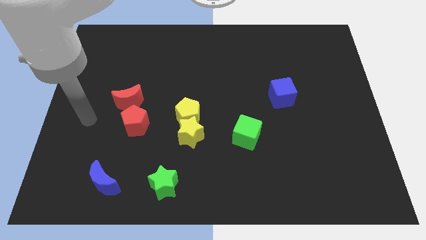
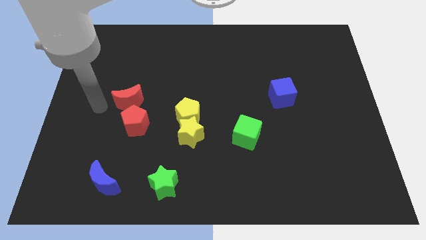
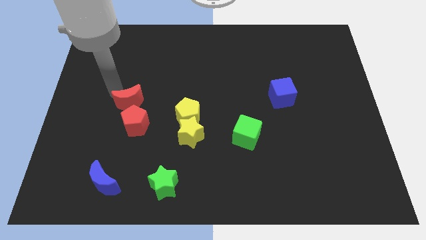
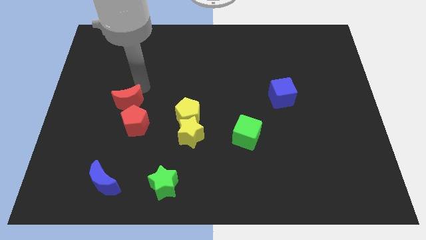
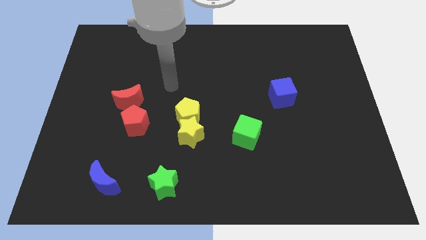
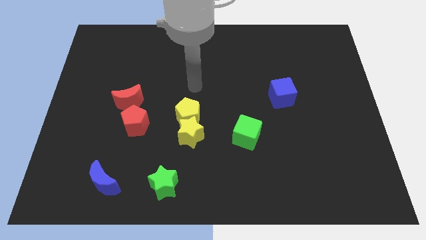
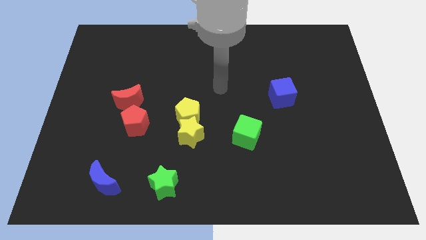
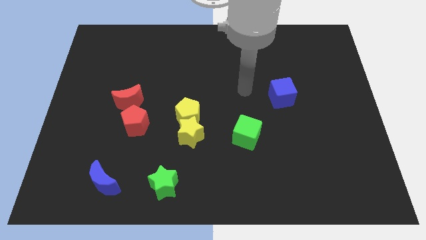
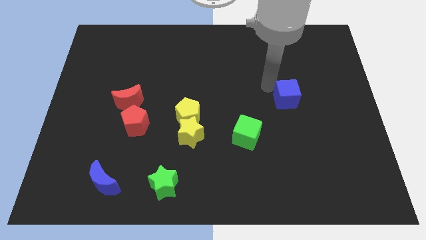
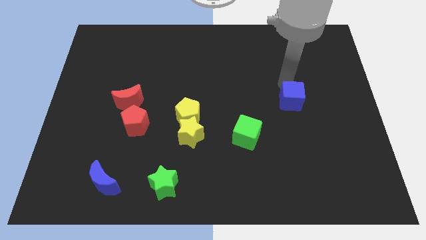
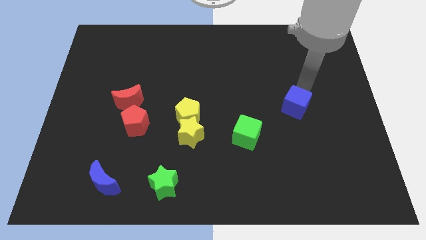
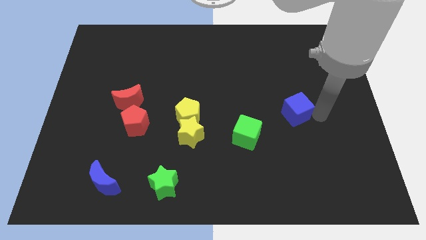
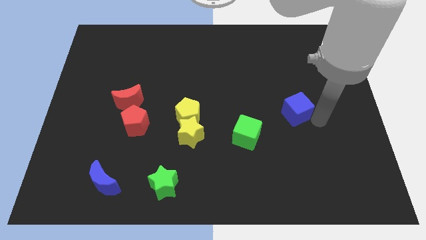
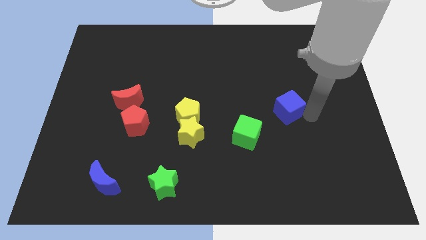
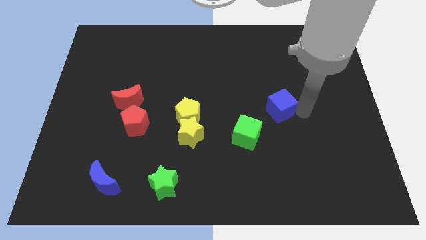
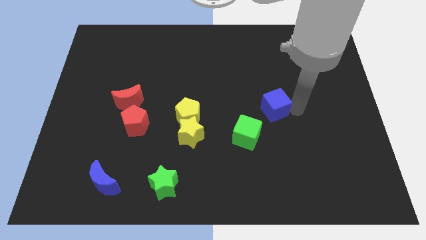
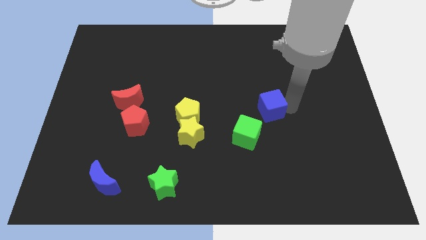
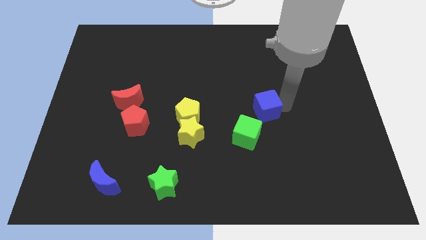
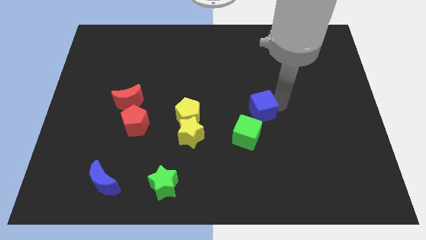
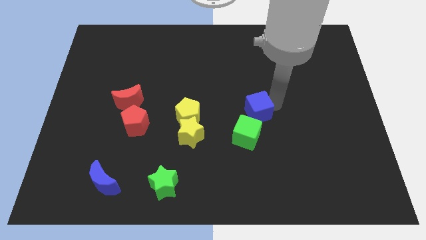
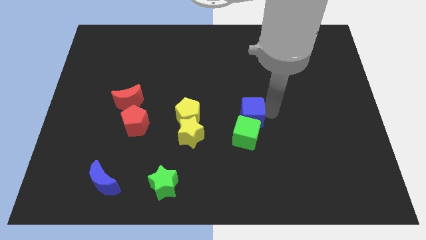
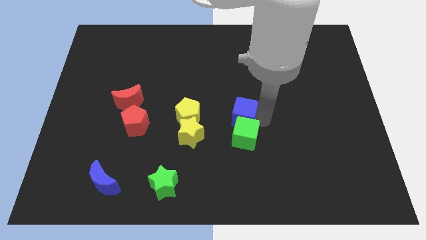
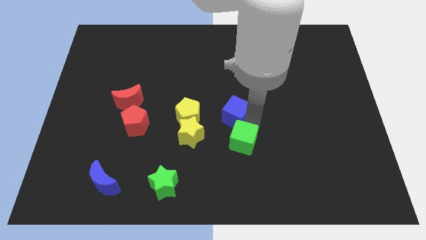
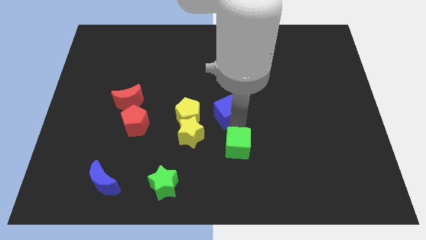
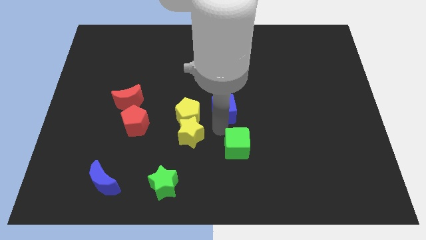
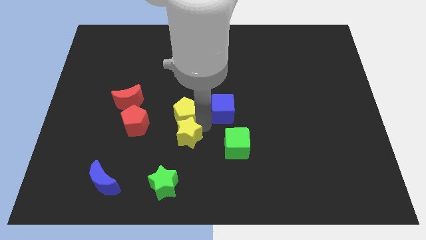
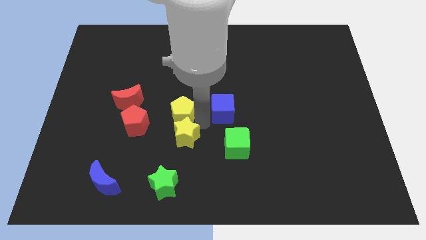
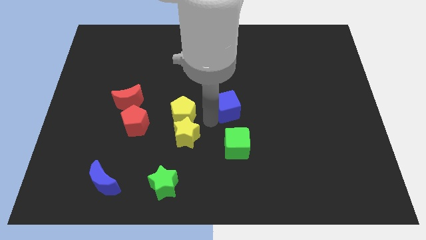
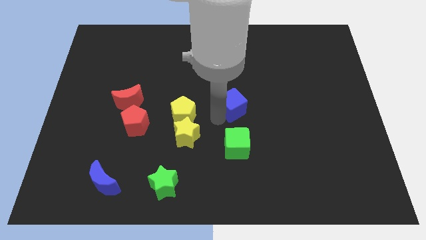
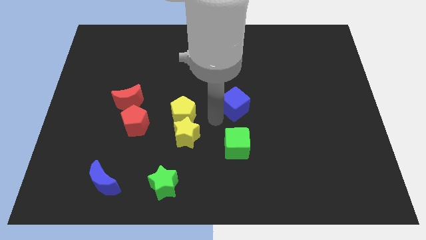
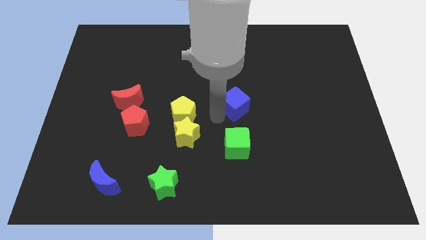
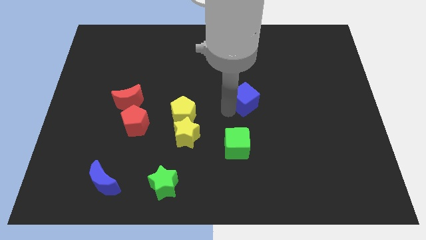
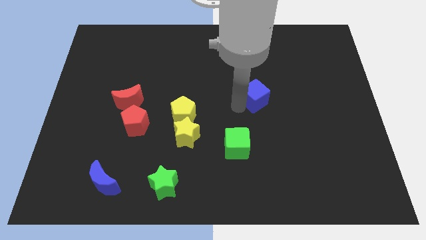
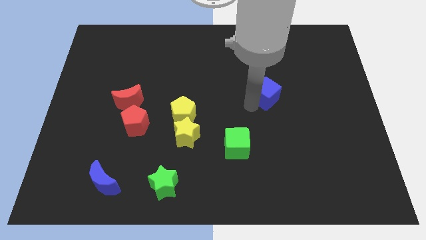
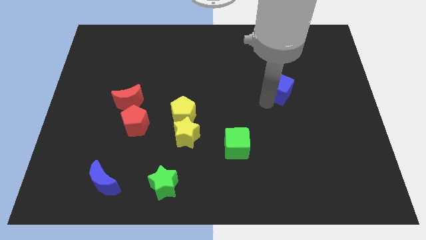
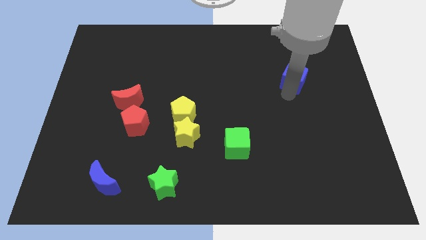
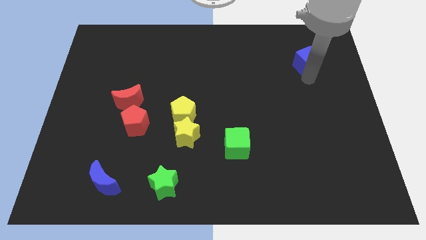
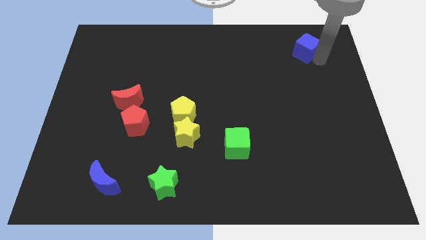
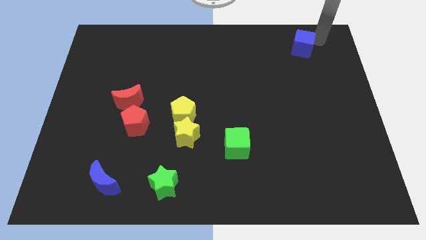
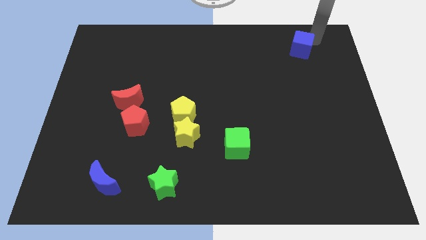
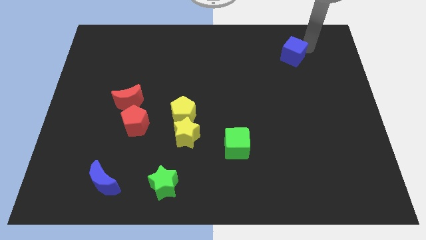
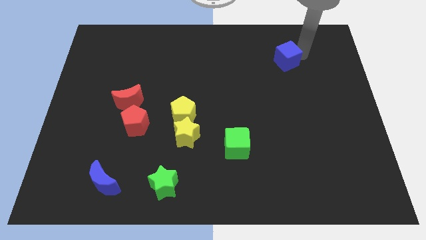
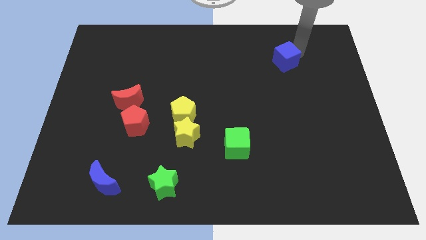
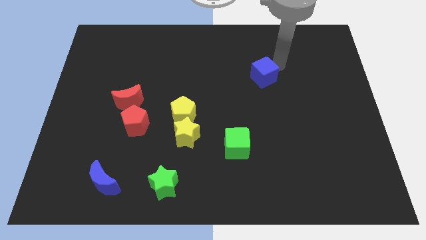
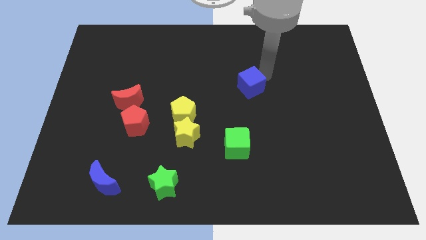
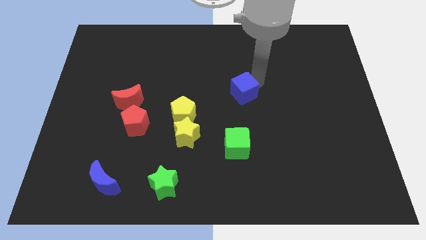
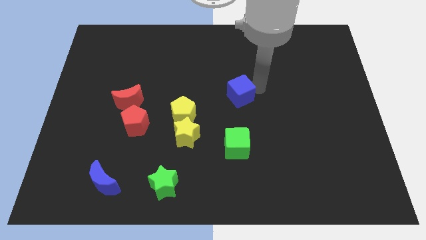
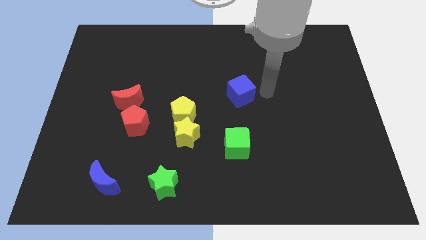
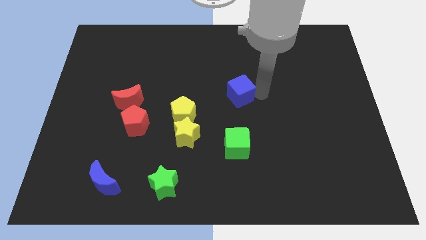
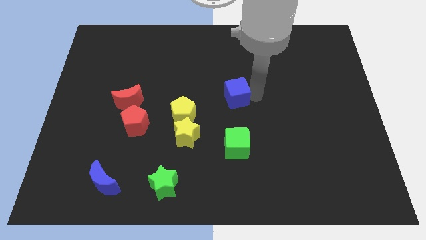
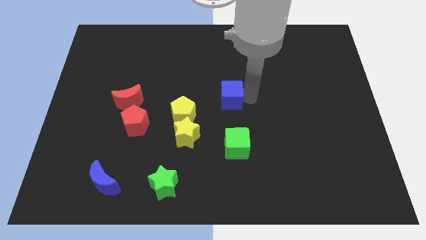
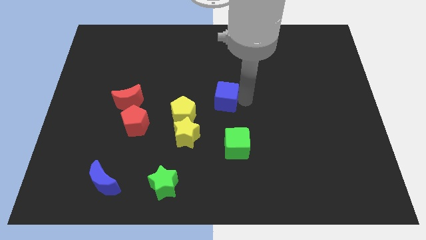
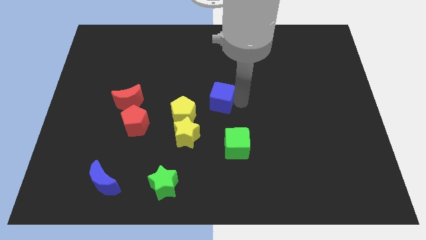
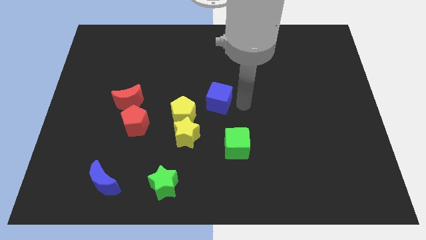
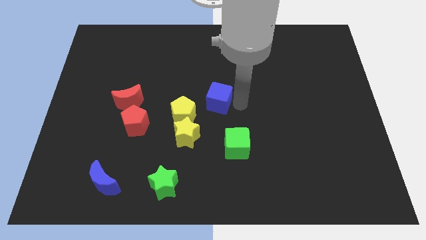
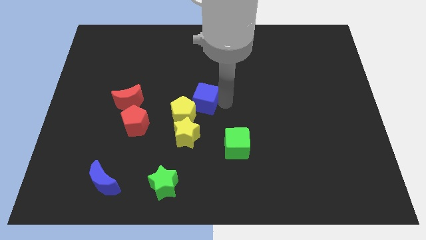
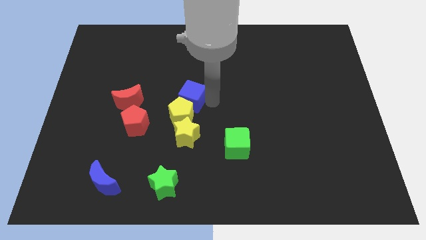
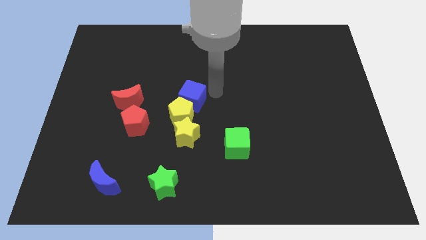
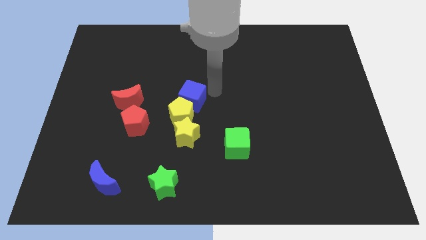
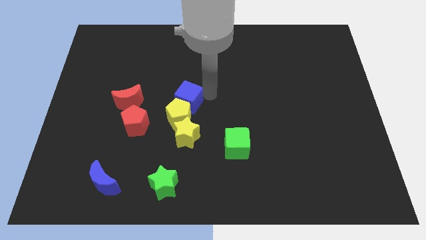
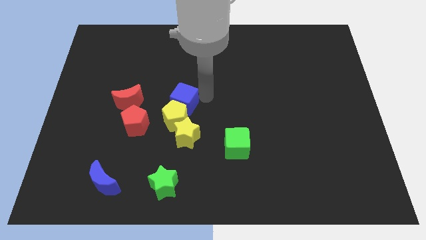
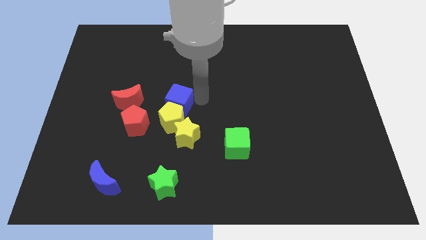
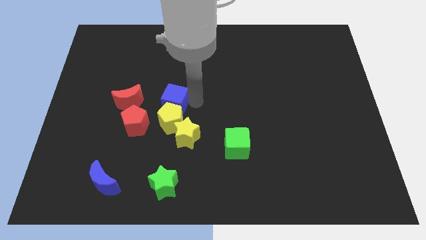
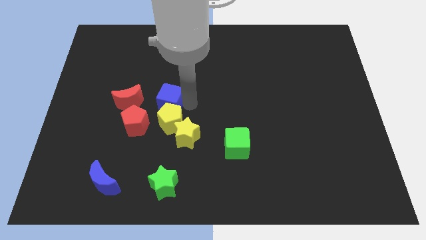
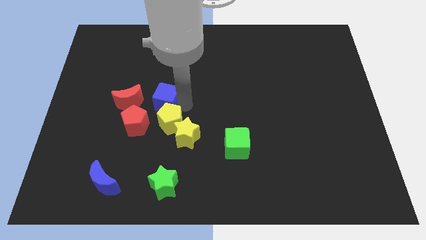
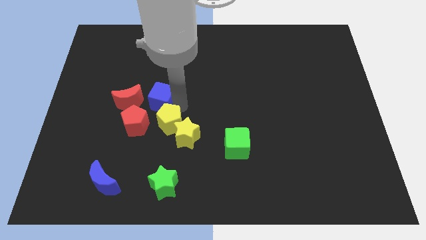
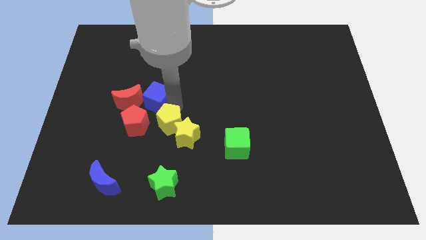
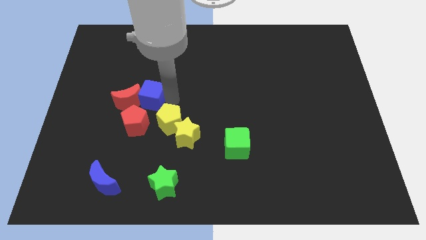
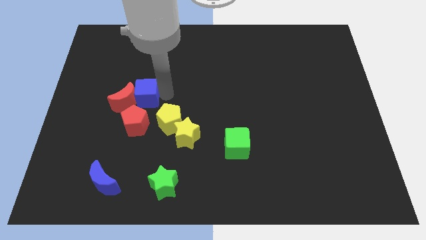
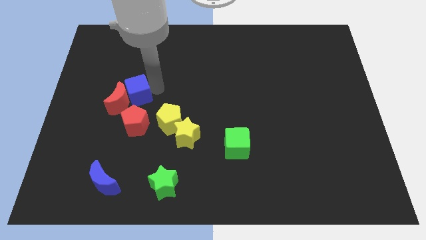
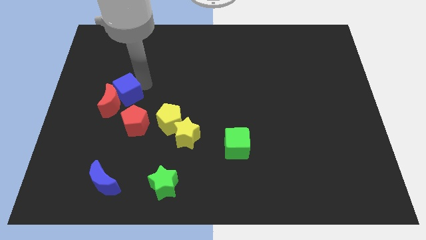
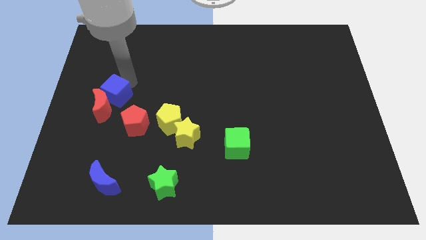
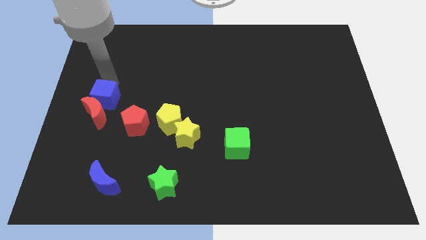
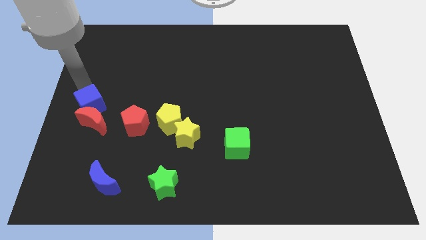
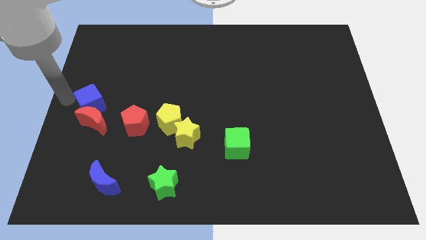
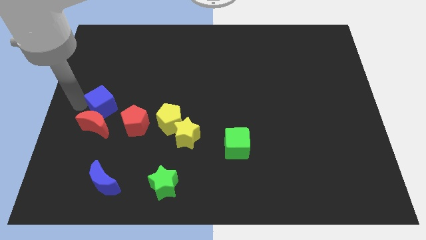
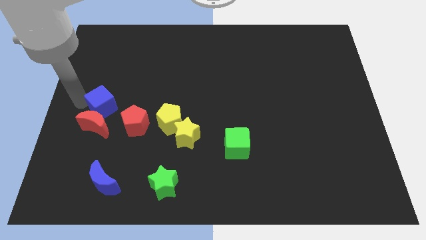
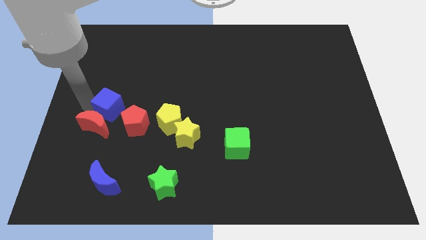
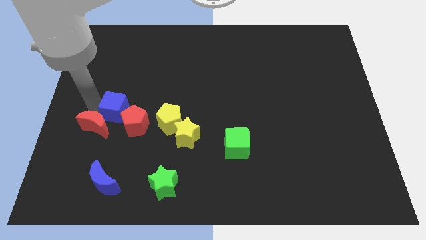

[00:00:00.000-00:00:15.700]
put the blue cube towards the red pentagon
